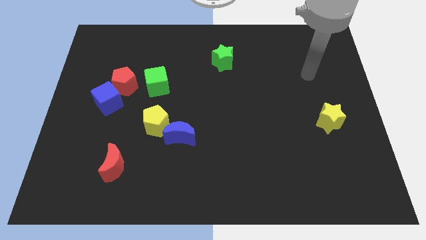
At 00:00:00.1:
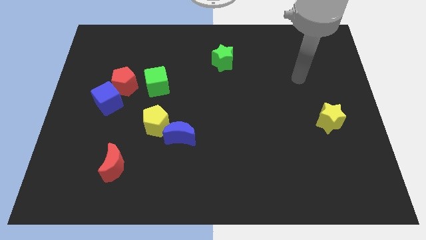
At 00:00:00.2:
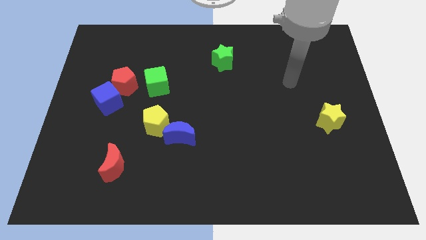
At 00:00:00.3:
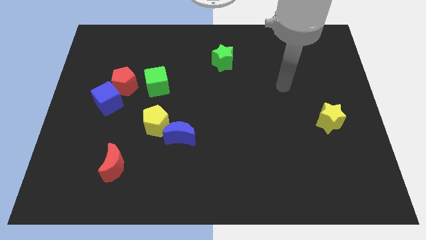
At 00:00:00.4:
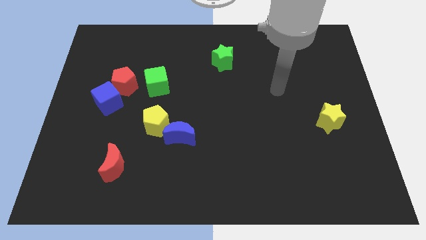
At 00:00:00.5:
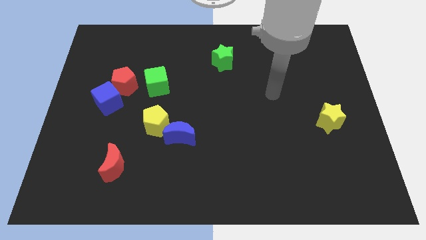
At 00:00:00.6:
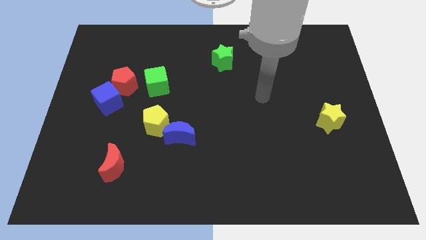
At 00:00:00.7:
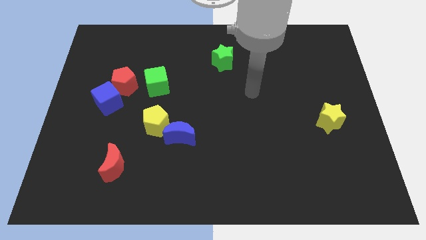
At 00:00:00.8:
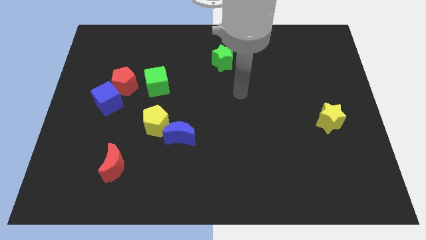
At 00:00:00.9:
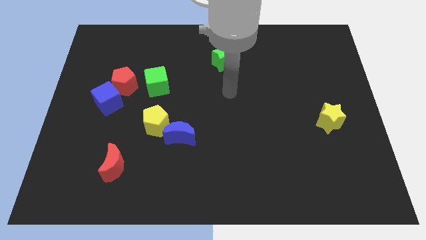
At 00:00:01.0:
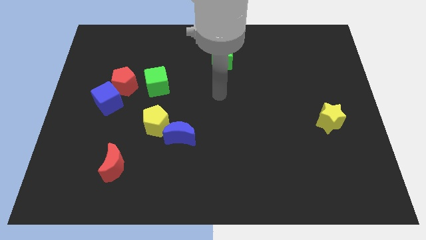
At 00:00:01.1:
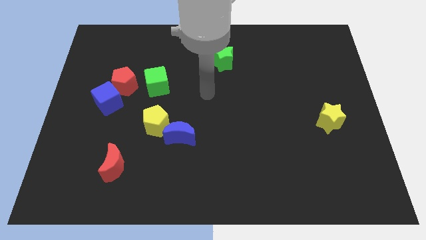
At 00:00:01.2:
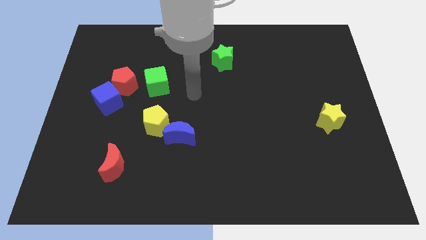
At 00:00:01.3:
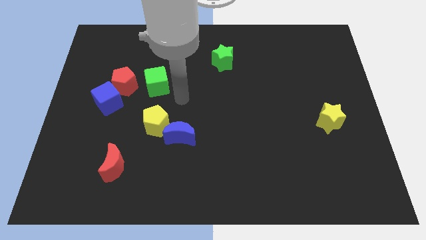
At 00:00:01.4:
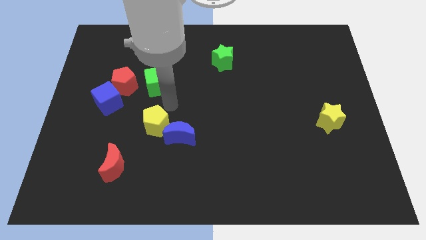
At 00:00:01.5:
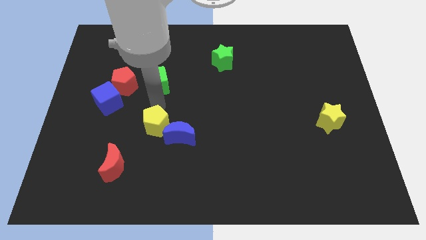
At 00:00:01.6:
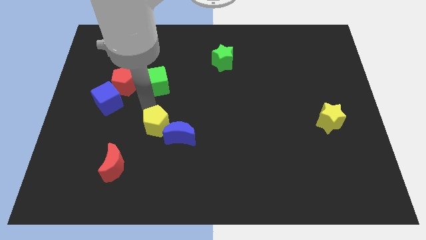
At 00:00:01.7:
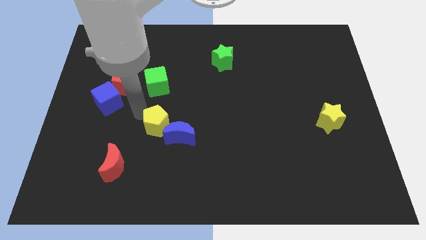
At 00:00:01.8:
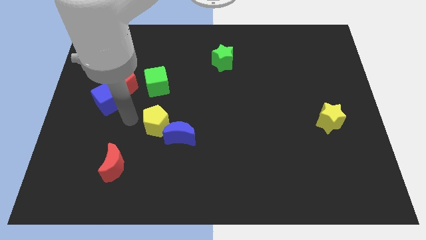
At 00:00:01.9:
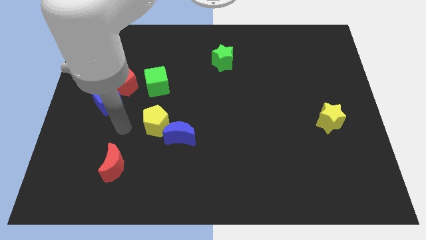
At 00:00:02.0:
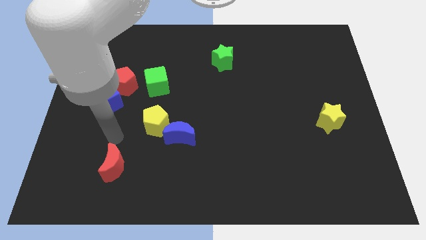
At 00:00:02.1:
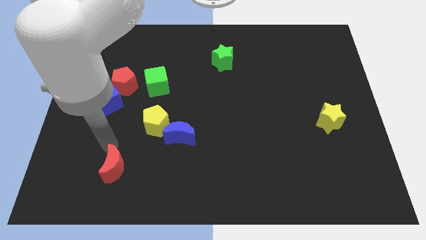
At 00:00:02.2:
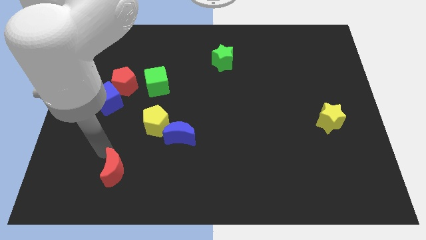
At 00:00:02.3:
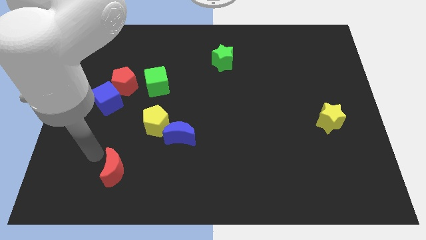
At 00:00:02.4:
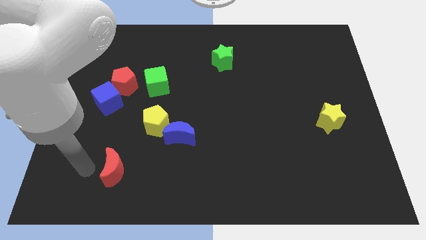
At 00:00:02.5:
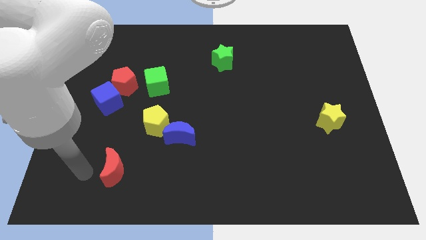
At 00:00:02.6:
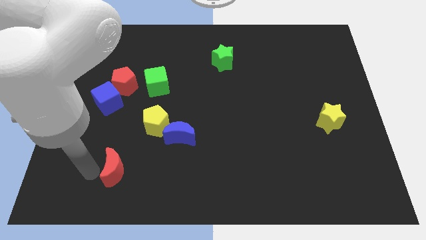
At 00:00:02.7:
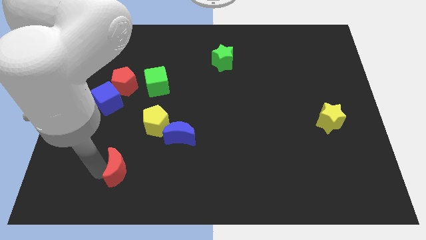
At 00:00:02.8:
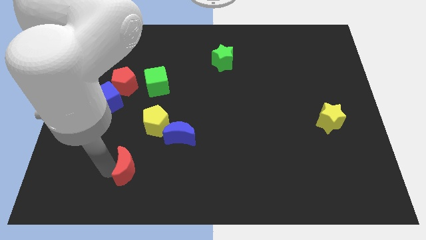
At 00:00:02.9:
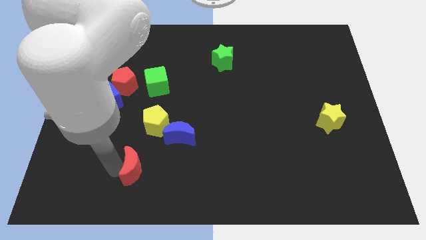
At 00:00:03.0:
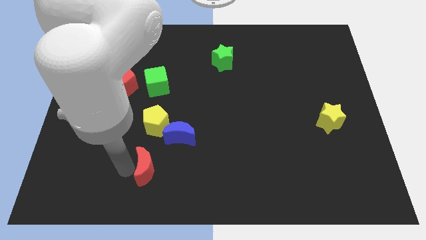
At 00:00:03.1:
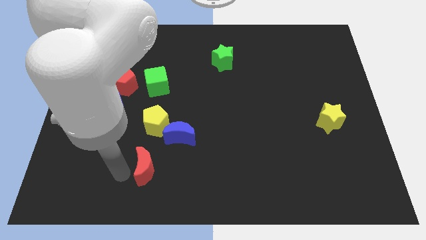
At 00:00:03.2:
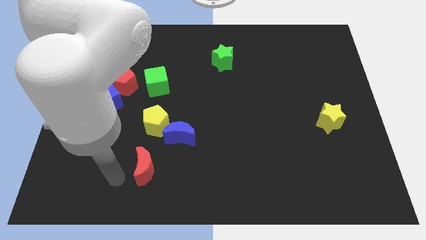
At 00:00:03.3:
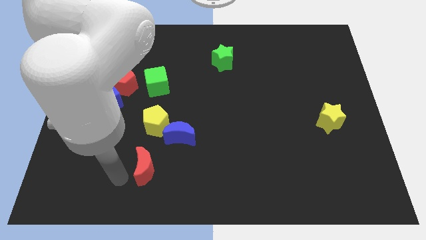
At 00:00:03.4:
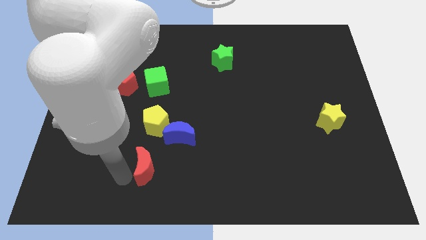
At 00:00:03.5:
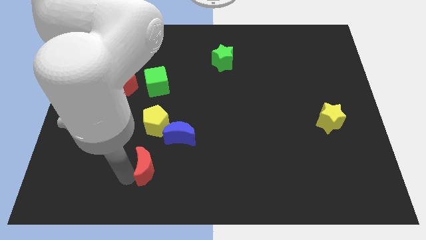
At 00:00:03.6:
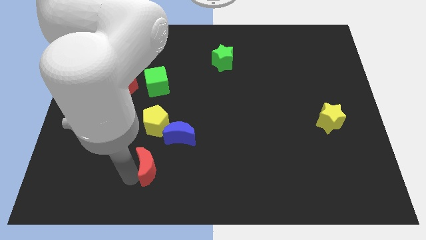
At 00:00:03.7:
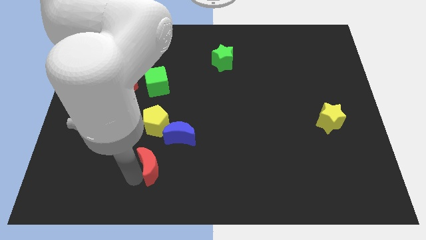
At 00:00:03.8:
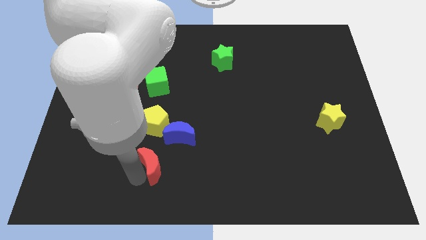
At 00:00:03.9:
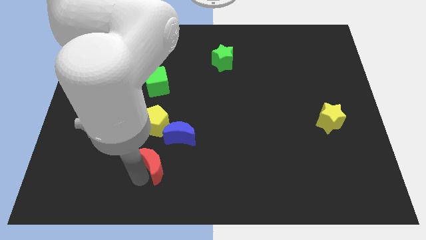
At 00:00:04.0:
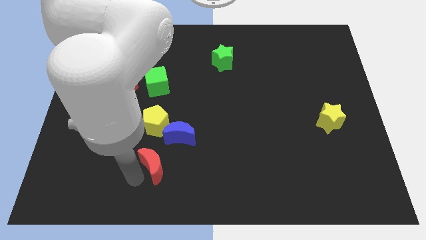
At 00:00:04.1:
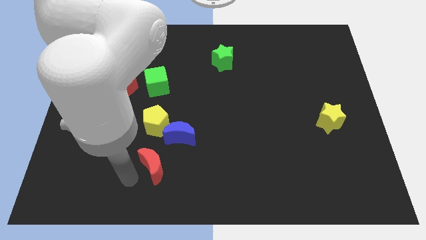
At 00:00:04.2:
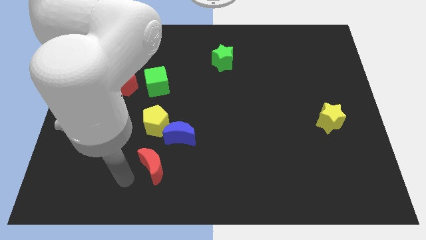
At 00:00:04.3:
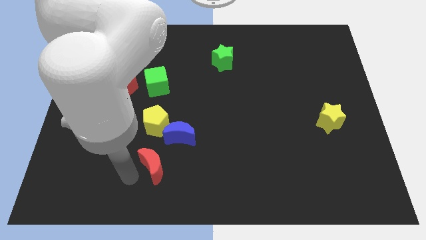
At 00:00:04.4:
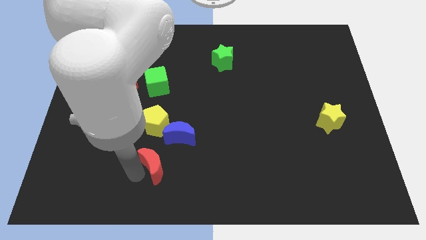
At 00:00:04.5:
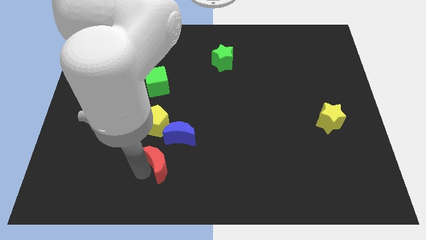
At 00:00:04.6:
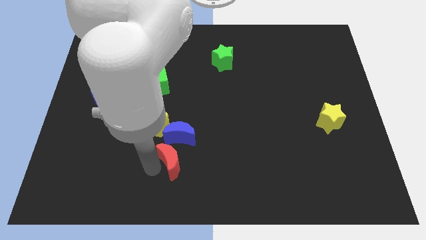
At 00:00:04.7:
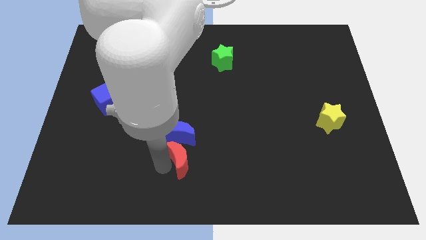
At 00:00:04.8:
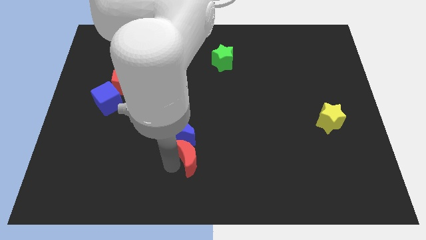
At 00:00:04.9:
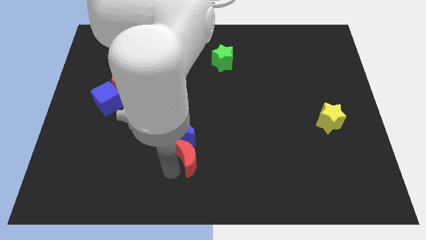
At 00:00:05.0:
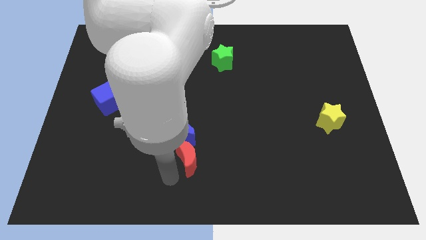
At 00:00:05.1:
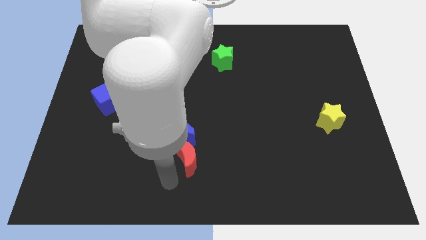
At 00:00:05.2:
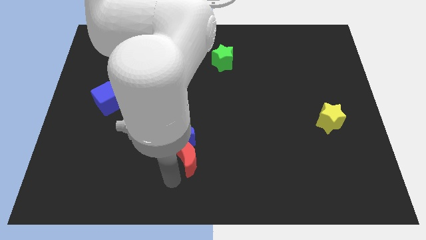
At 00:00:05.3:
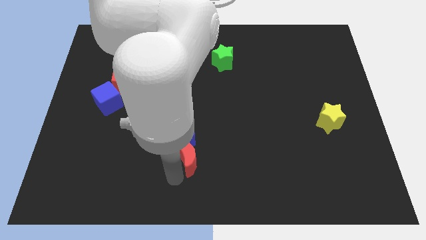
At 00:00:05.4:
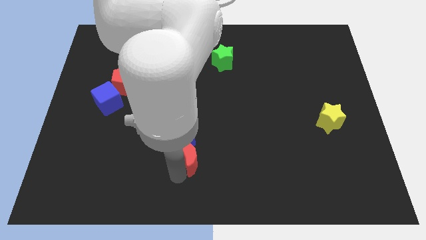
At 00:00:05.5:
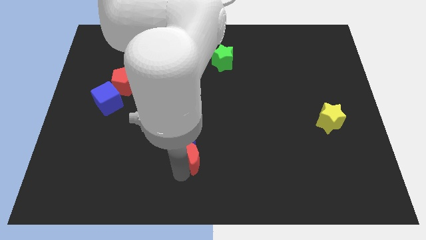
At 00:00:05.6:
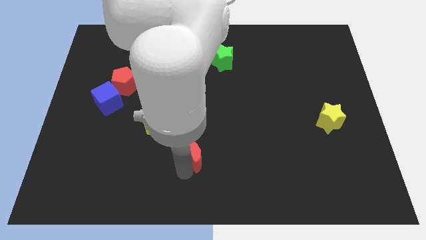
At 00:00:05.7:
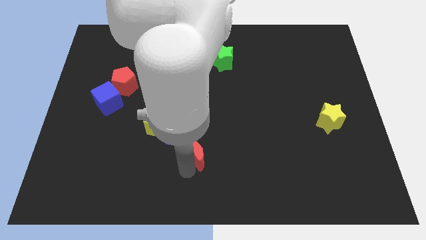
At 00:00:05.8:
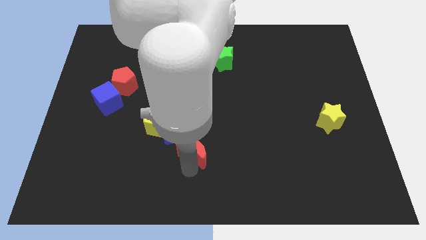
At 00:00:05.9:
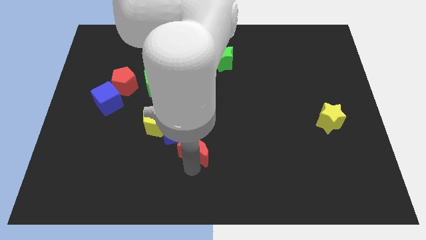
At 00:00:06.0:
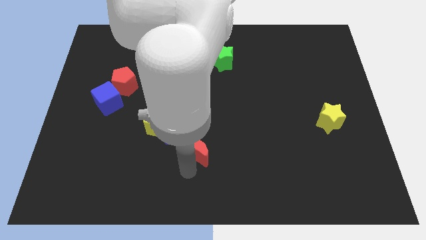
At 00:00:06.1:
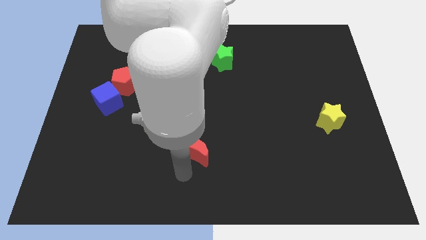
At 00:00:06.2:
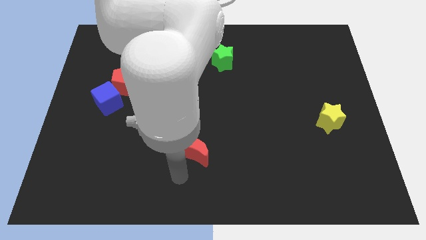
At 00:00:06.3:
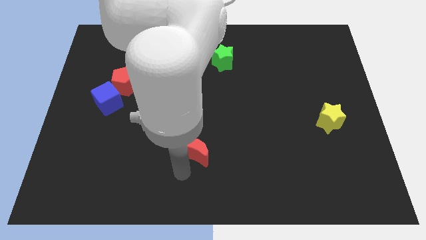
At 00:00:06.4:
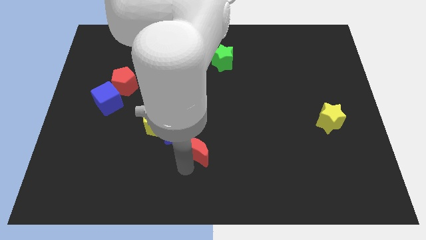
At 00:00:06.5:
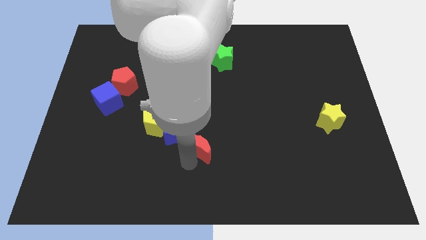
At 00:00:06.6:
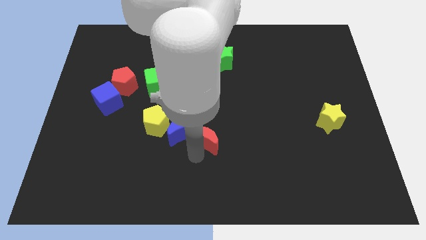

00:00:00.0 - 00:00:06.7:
move the red moon to the center of the board
